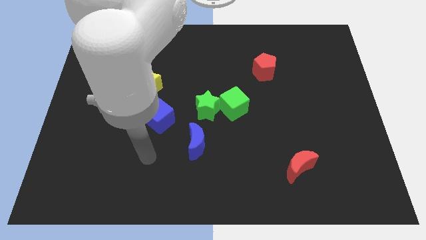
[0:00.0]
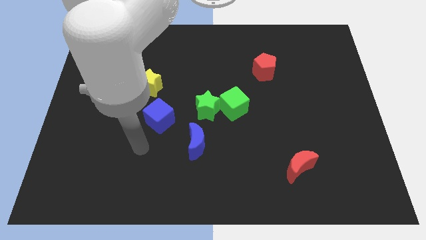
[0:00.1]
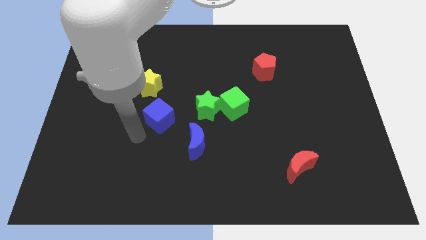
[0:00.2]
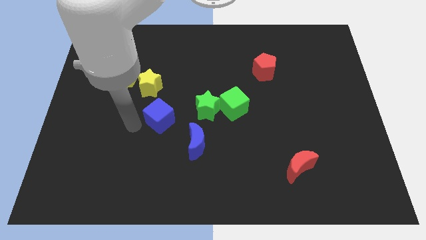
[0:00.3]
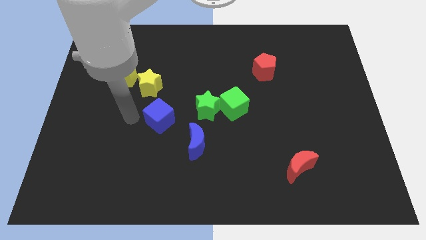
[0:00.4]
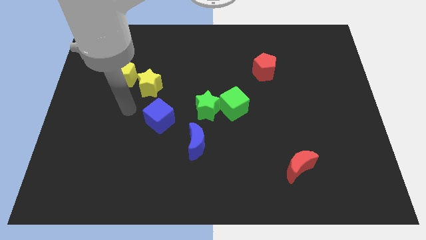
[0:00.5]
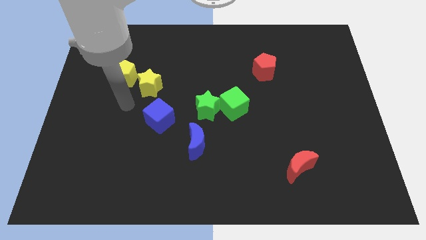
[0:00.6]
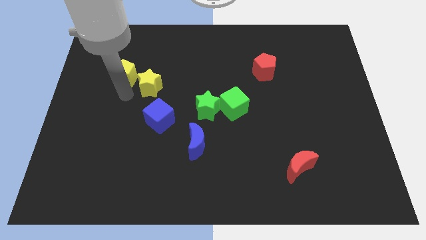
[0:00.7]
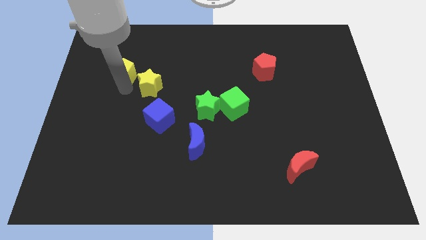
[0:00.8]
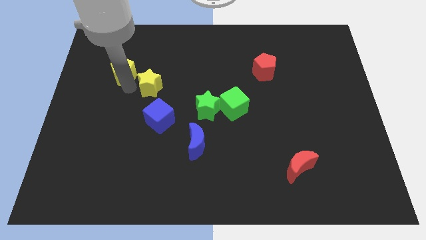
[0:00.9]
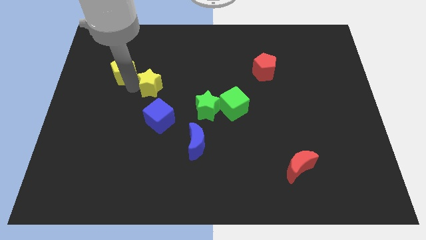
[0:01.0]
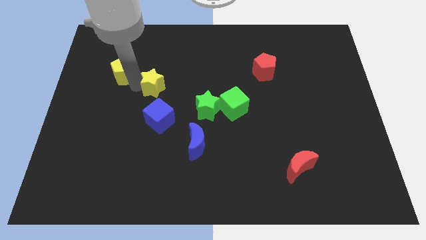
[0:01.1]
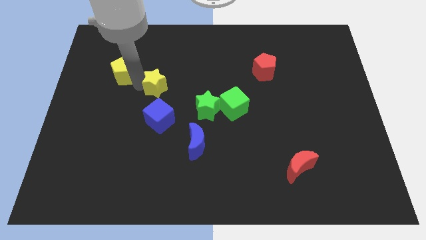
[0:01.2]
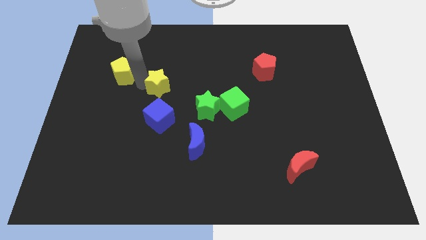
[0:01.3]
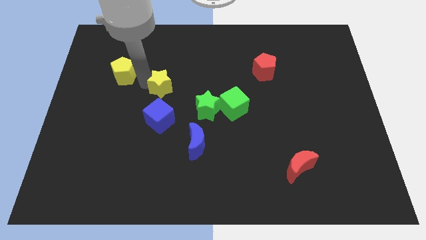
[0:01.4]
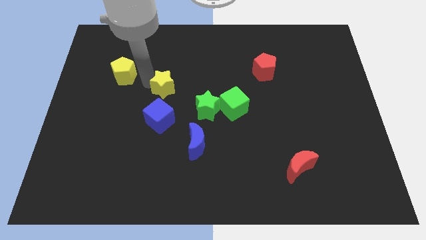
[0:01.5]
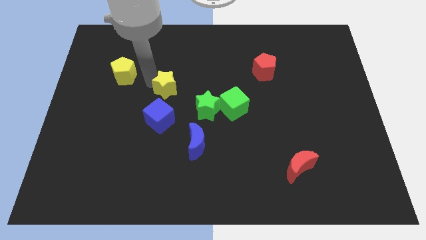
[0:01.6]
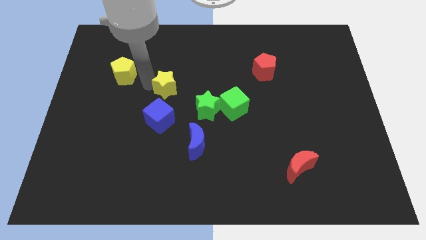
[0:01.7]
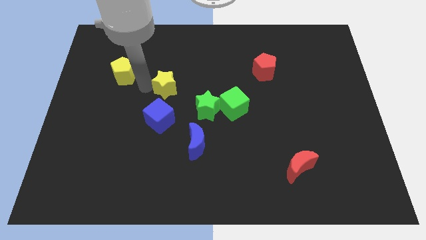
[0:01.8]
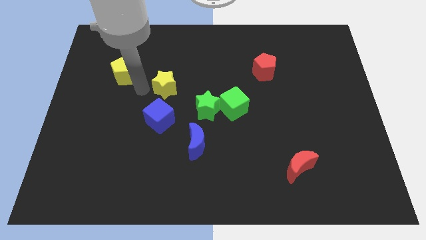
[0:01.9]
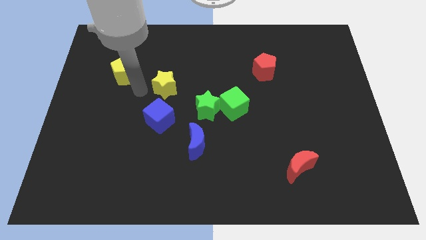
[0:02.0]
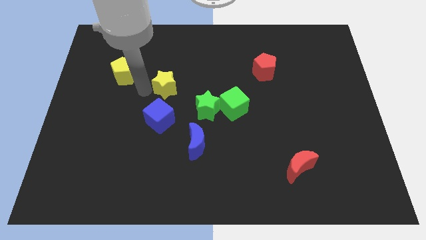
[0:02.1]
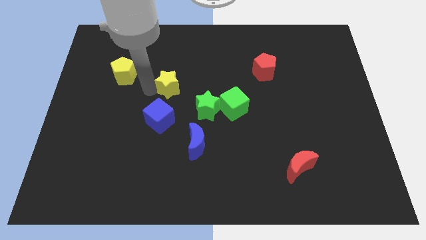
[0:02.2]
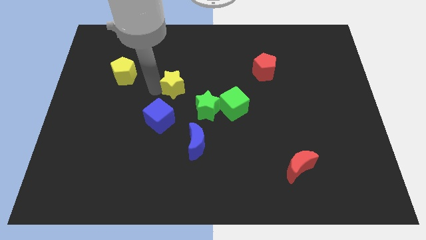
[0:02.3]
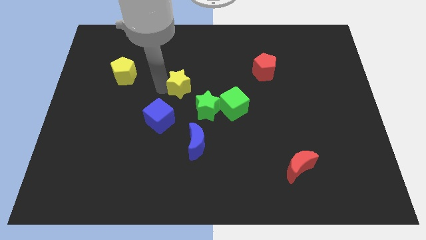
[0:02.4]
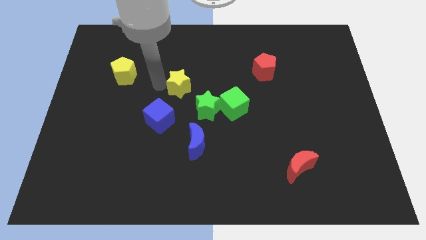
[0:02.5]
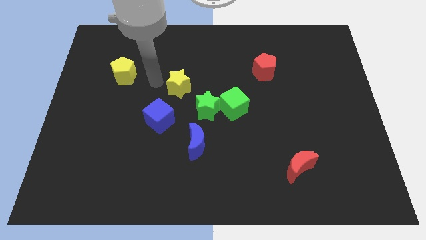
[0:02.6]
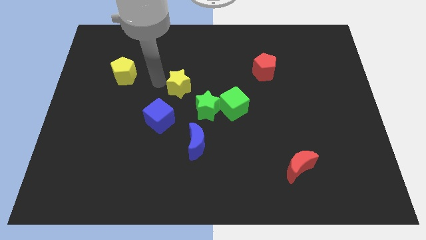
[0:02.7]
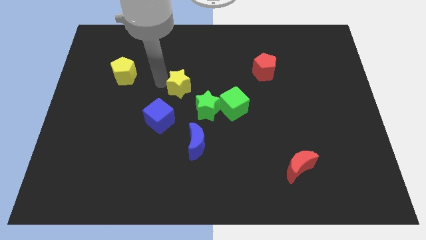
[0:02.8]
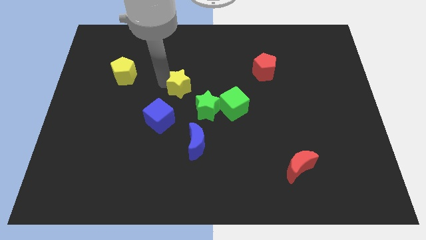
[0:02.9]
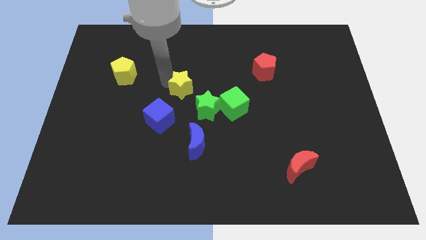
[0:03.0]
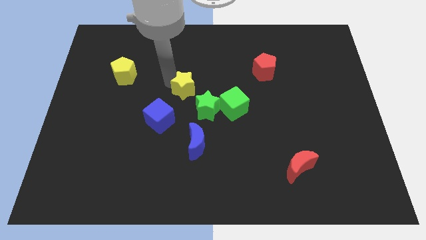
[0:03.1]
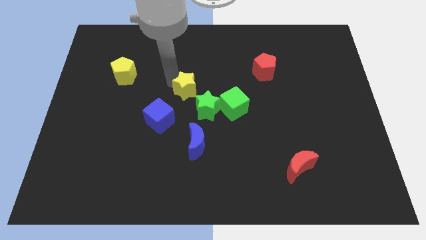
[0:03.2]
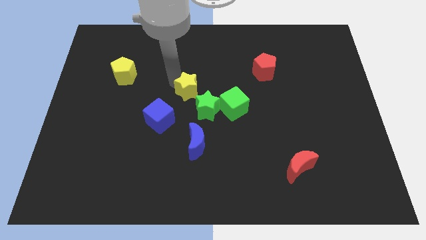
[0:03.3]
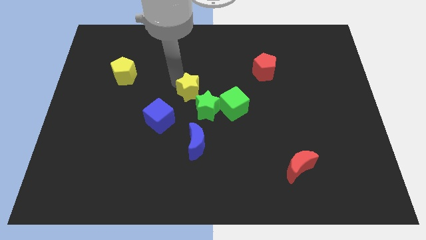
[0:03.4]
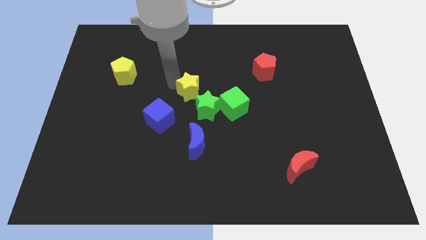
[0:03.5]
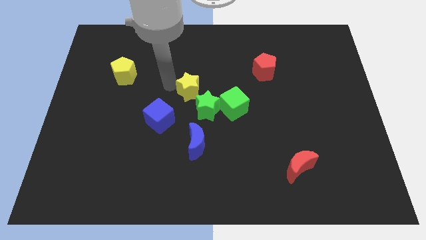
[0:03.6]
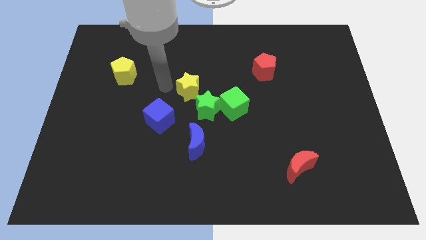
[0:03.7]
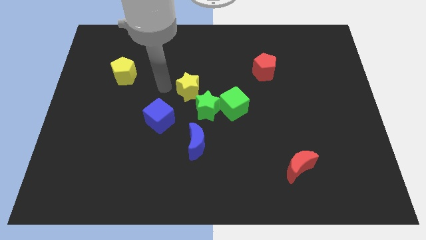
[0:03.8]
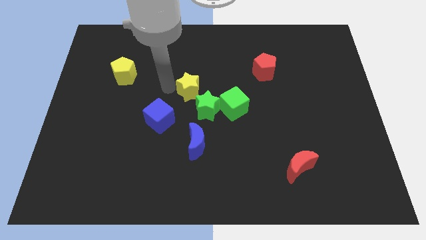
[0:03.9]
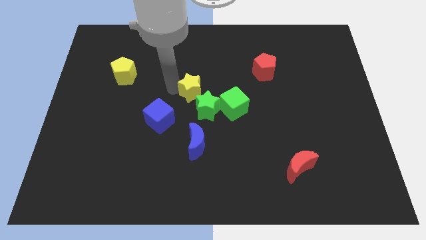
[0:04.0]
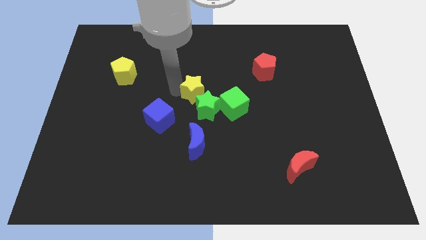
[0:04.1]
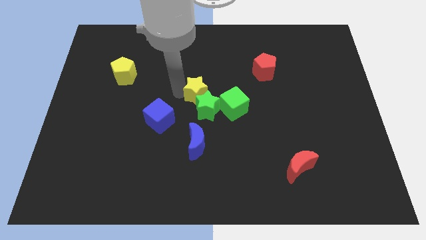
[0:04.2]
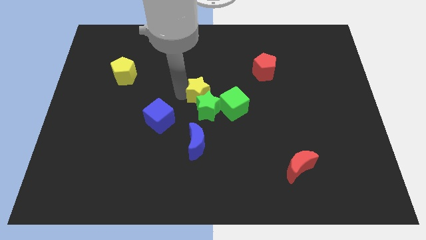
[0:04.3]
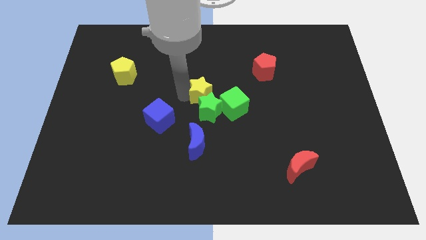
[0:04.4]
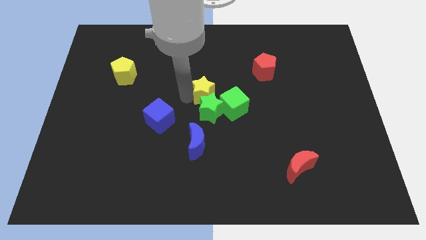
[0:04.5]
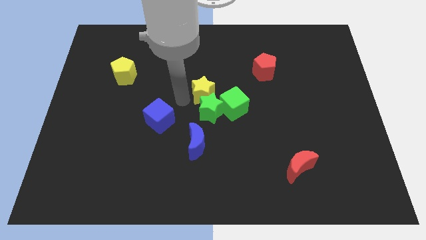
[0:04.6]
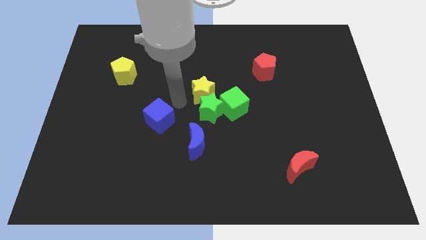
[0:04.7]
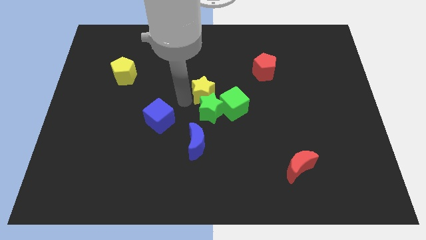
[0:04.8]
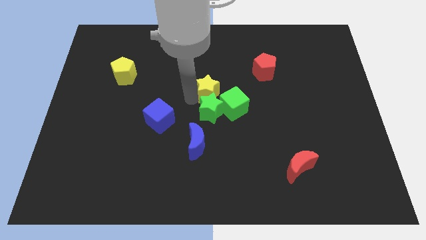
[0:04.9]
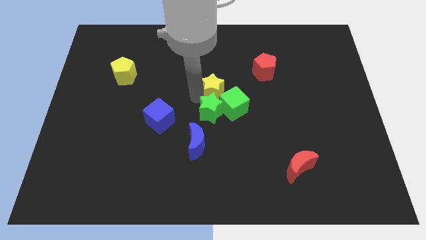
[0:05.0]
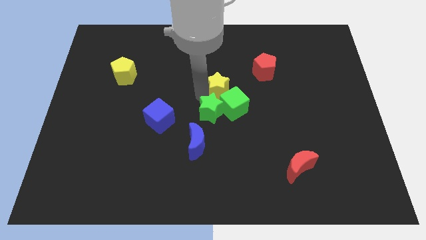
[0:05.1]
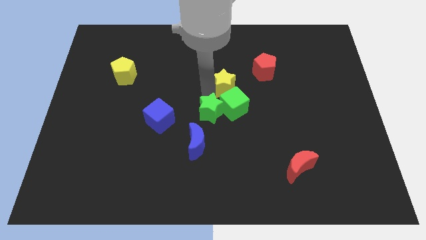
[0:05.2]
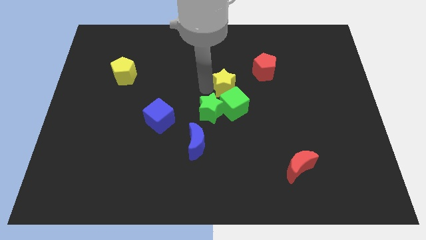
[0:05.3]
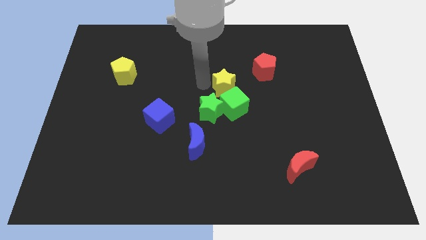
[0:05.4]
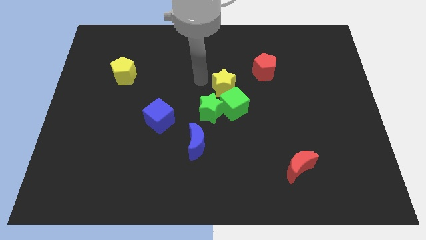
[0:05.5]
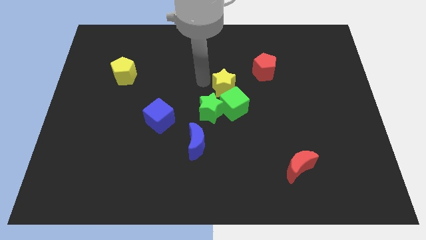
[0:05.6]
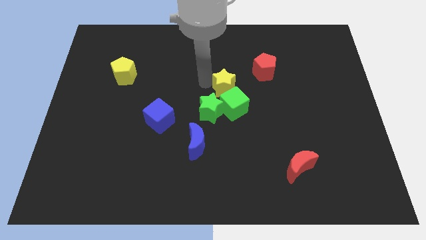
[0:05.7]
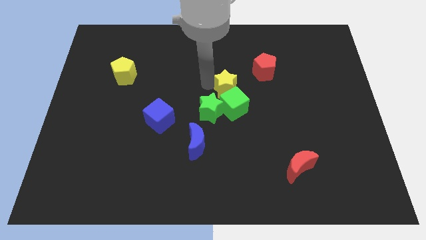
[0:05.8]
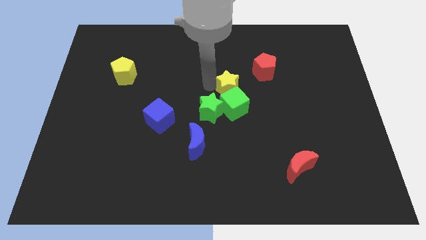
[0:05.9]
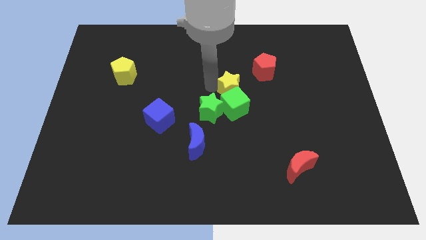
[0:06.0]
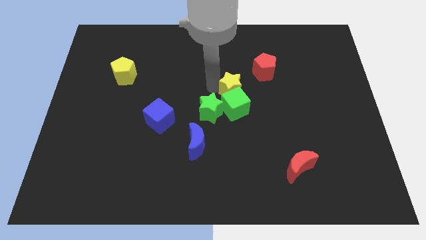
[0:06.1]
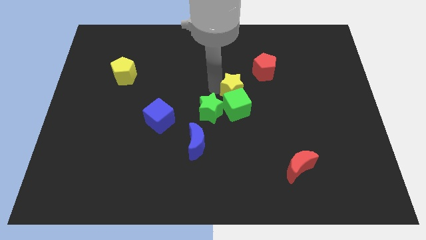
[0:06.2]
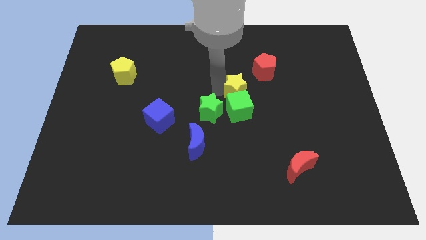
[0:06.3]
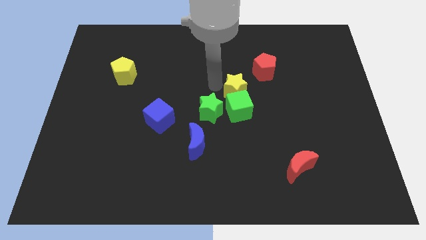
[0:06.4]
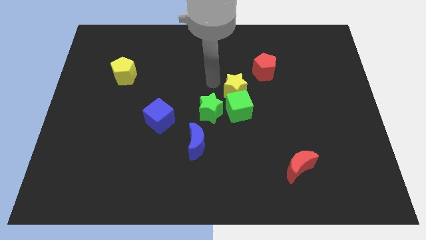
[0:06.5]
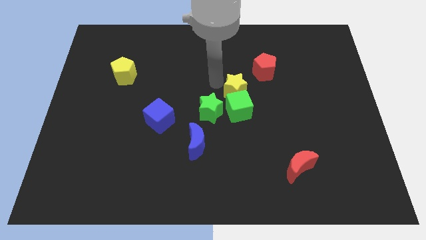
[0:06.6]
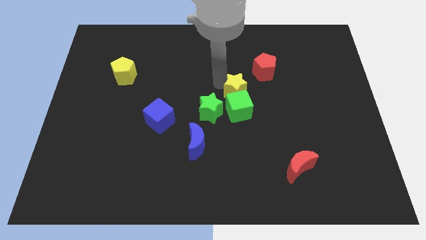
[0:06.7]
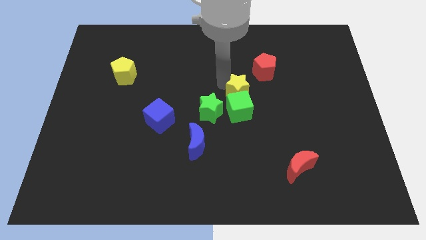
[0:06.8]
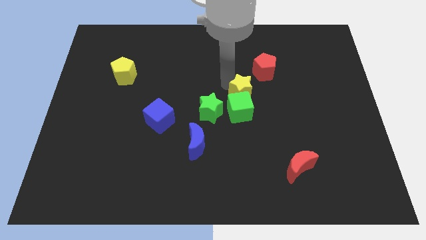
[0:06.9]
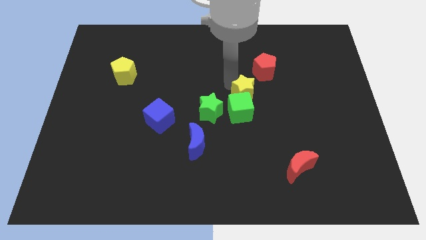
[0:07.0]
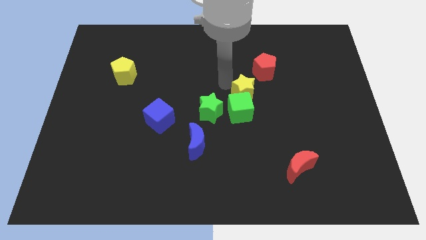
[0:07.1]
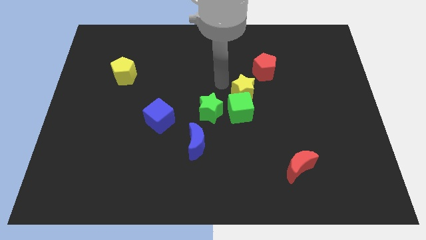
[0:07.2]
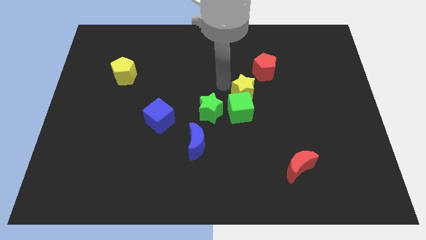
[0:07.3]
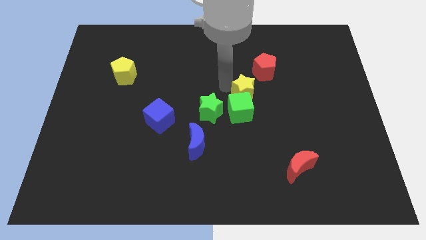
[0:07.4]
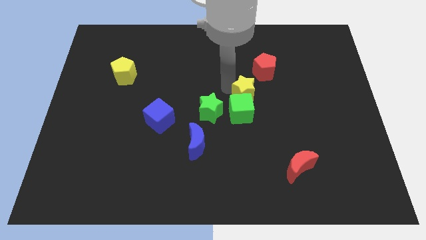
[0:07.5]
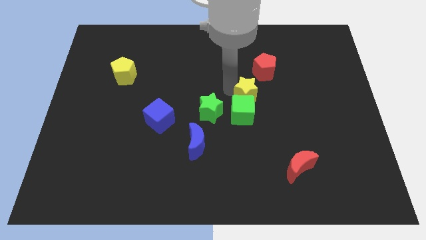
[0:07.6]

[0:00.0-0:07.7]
move the yellow star to the bottom side of the red pentagon
